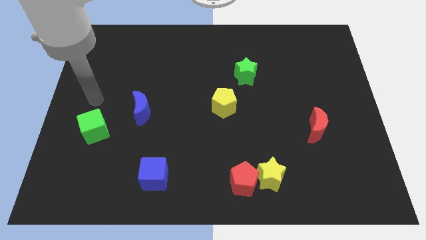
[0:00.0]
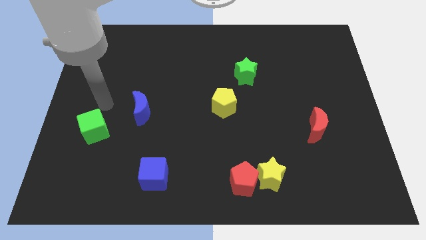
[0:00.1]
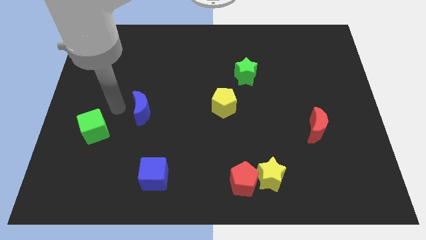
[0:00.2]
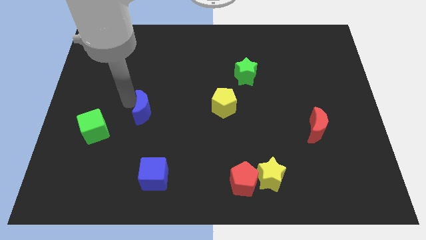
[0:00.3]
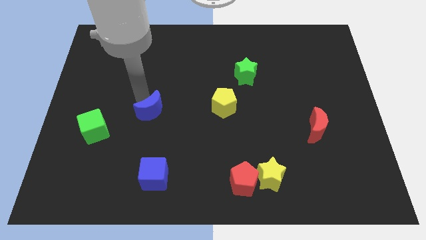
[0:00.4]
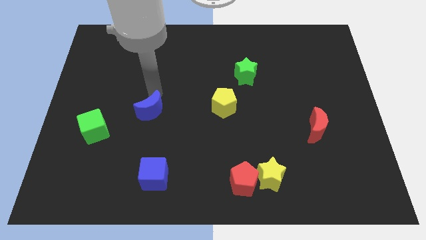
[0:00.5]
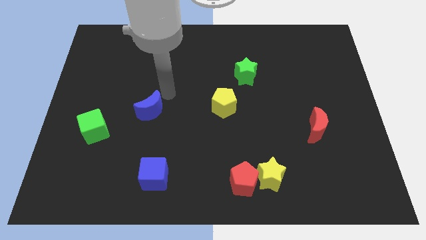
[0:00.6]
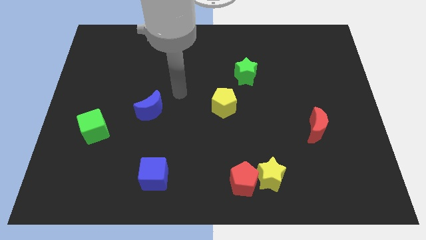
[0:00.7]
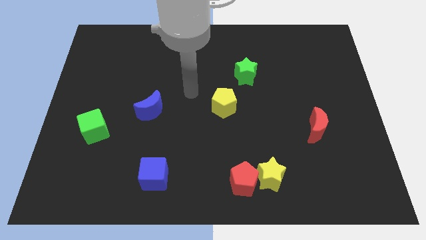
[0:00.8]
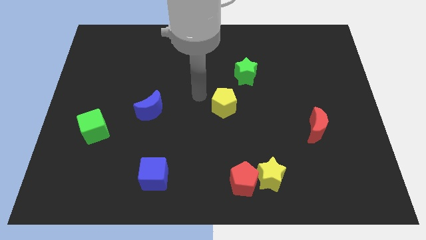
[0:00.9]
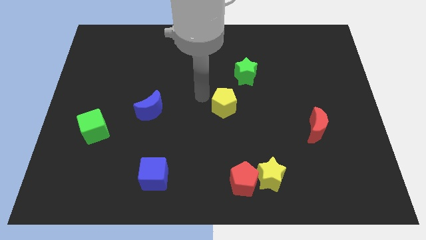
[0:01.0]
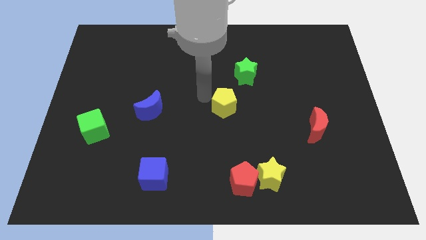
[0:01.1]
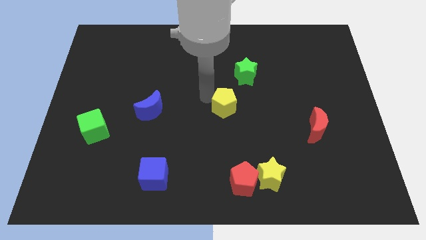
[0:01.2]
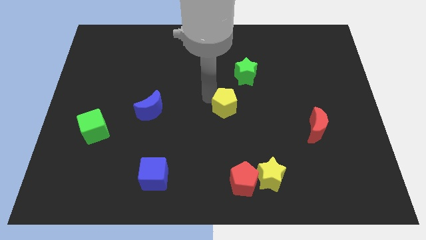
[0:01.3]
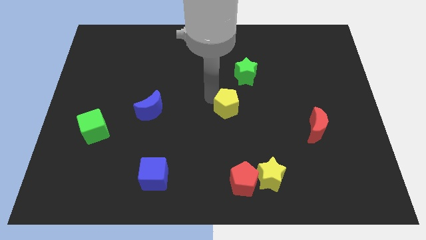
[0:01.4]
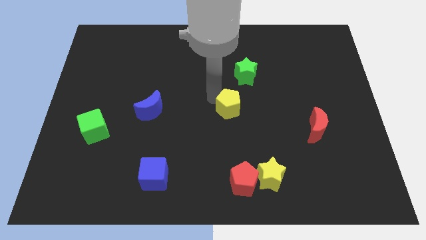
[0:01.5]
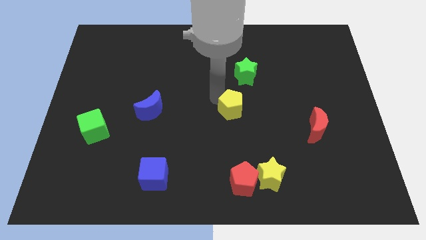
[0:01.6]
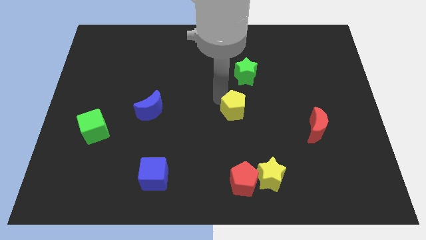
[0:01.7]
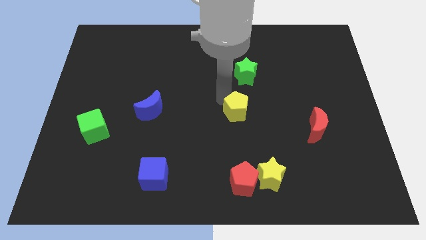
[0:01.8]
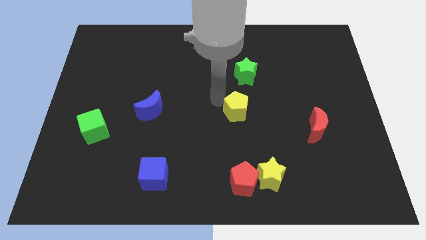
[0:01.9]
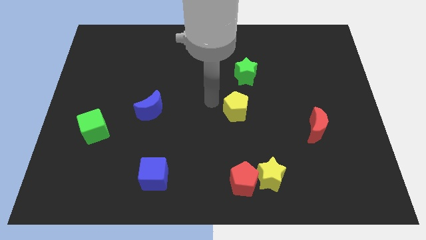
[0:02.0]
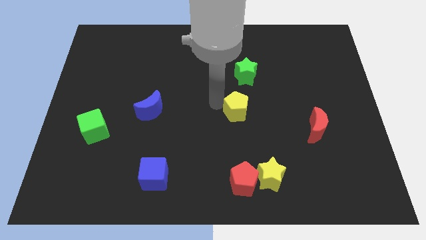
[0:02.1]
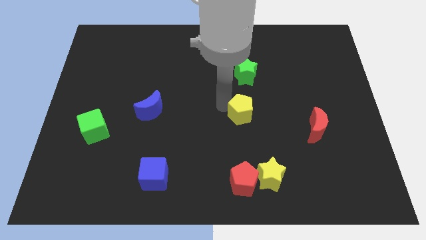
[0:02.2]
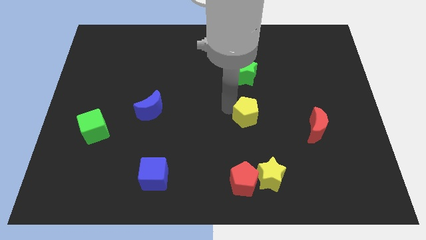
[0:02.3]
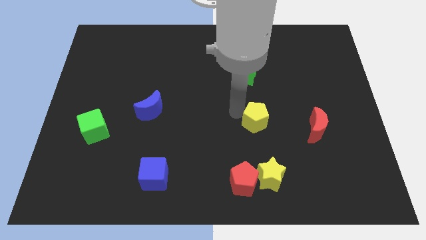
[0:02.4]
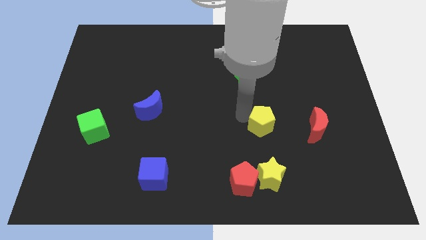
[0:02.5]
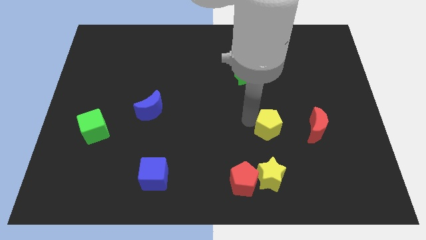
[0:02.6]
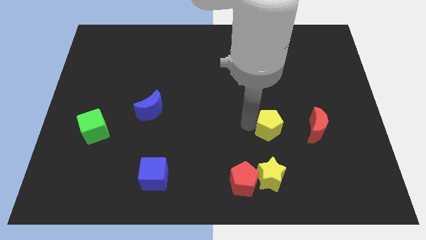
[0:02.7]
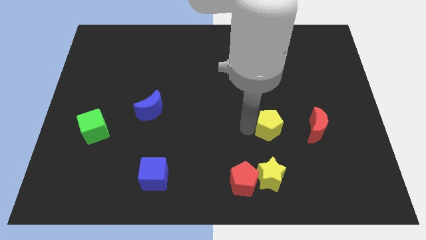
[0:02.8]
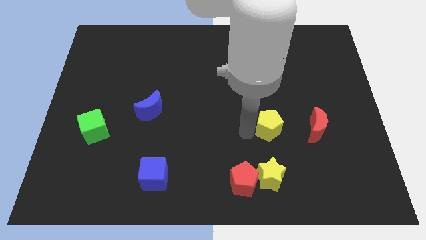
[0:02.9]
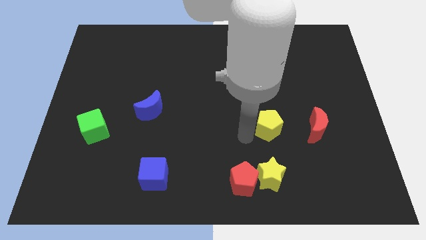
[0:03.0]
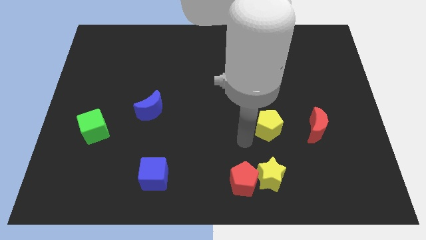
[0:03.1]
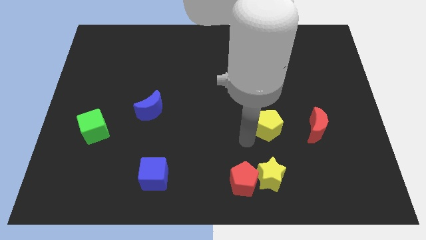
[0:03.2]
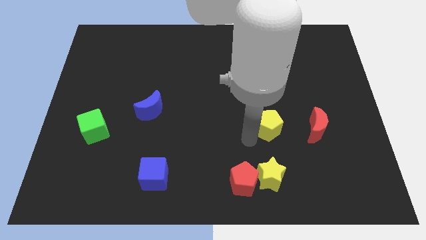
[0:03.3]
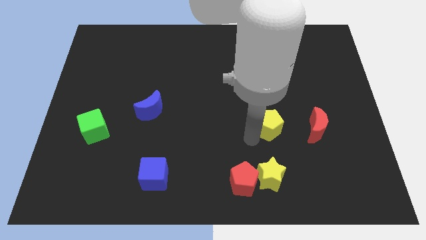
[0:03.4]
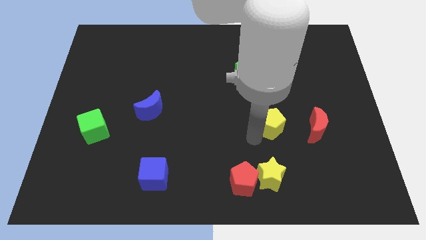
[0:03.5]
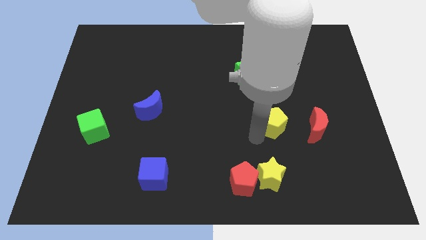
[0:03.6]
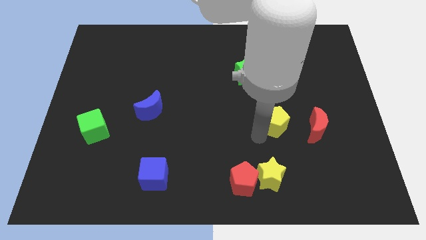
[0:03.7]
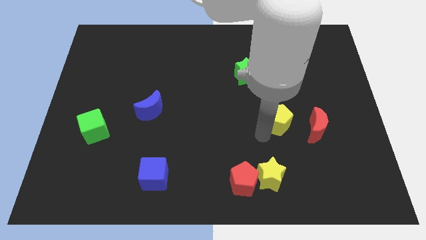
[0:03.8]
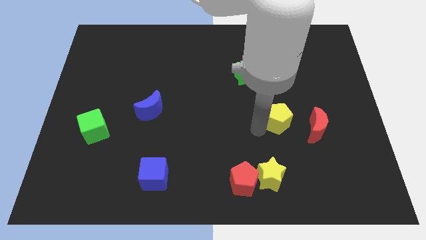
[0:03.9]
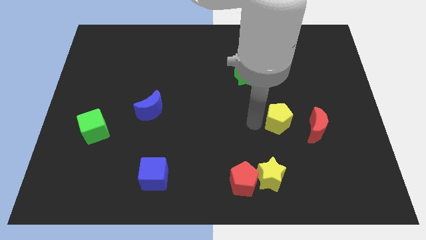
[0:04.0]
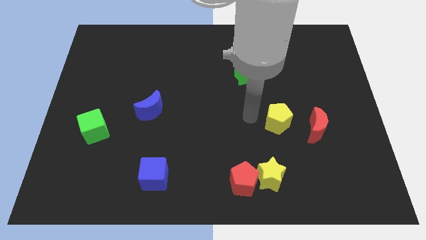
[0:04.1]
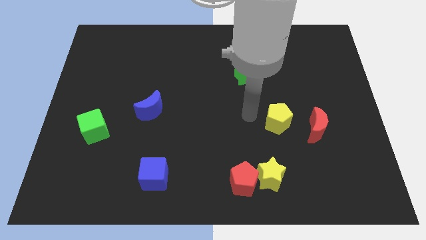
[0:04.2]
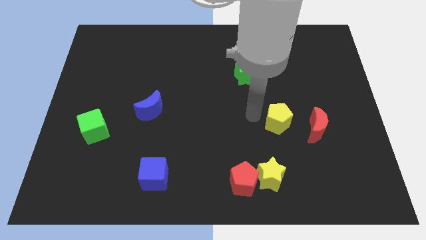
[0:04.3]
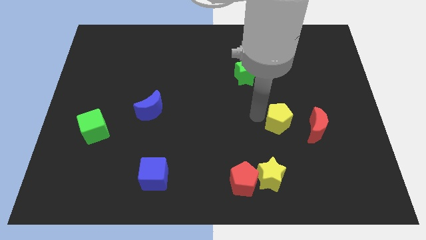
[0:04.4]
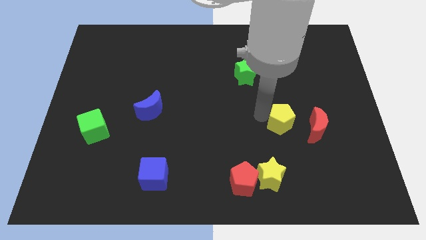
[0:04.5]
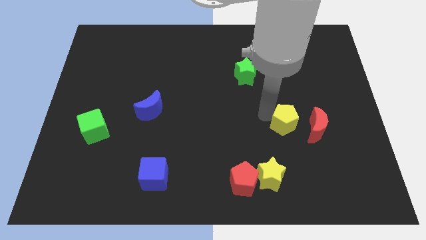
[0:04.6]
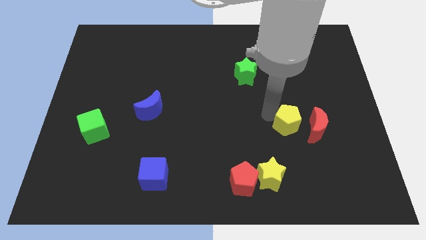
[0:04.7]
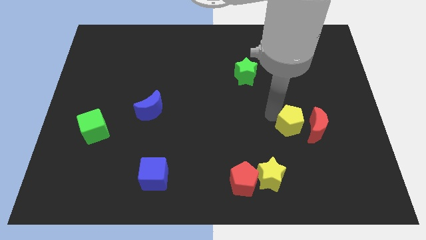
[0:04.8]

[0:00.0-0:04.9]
put the yellow pentagon close to the red moon

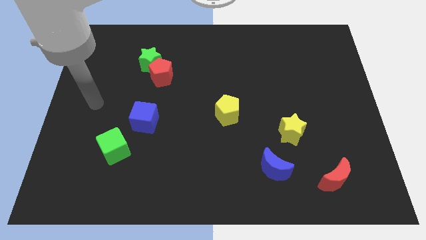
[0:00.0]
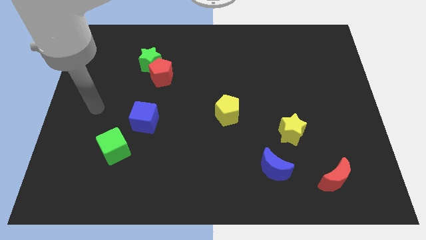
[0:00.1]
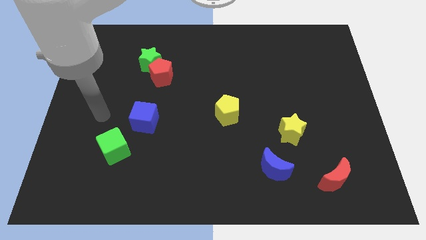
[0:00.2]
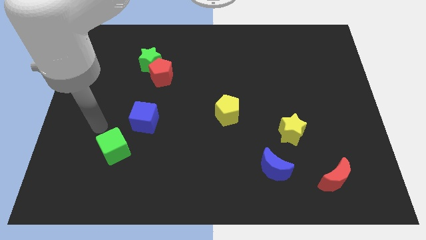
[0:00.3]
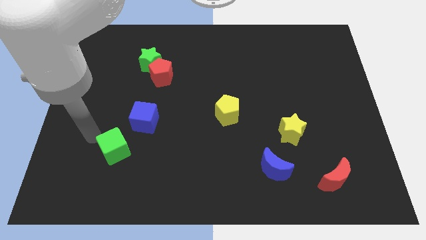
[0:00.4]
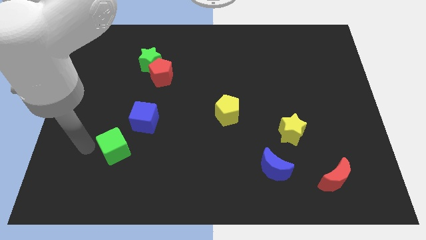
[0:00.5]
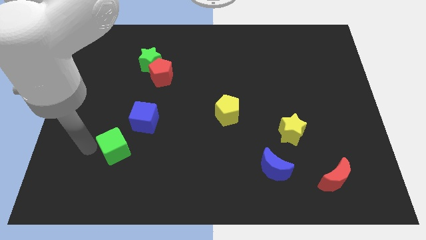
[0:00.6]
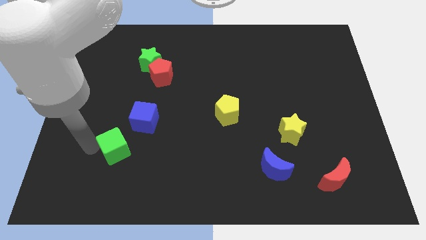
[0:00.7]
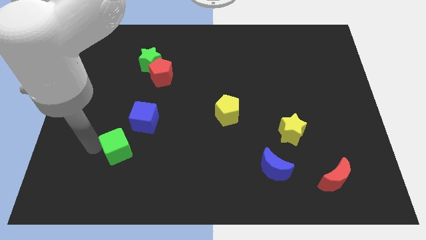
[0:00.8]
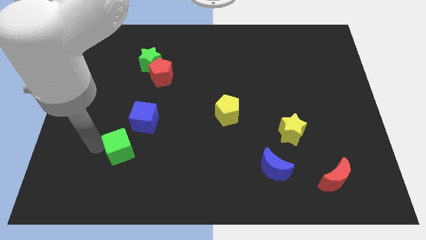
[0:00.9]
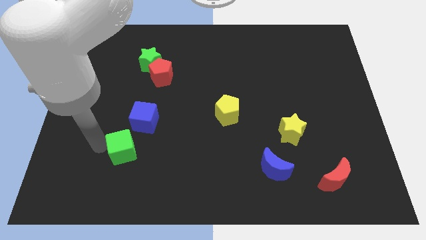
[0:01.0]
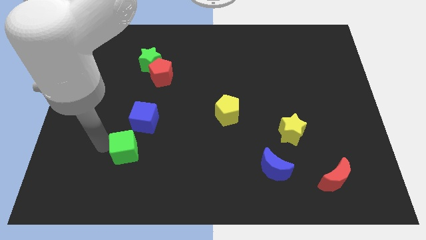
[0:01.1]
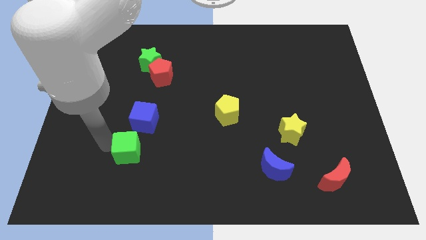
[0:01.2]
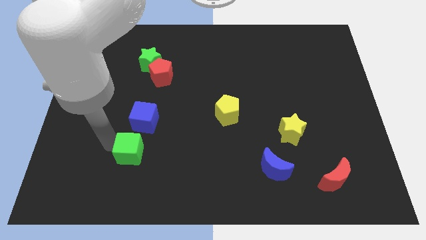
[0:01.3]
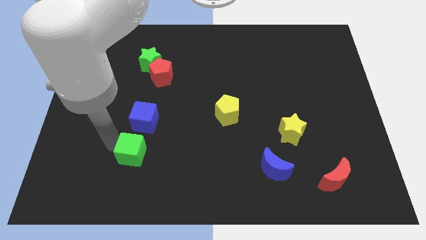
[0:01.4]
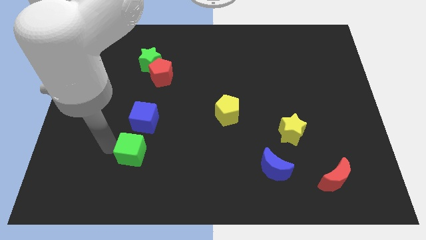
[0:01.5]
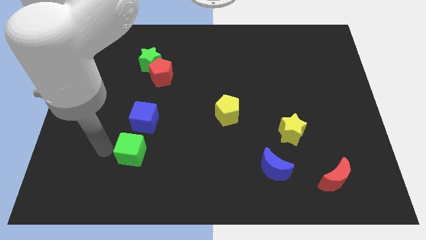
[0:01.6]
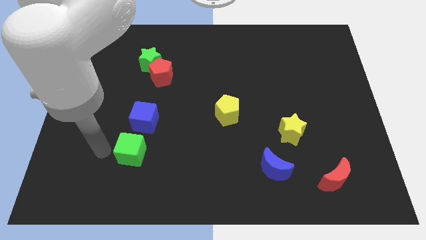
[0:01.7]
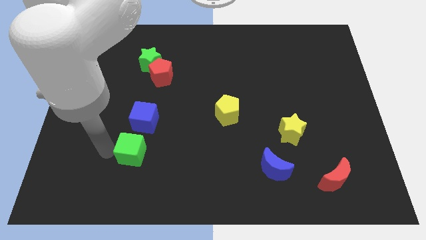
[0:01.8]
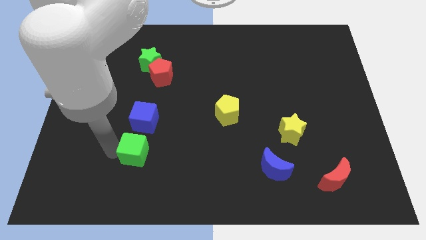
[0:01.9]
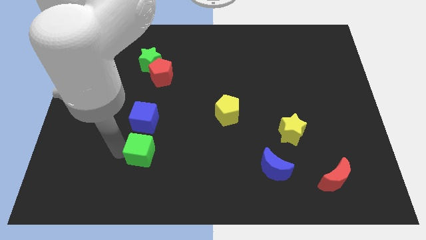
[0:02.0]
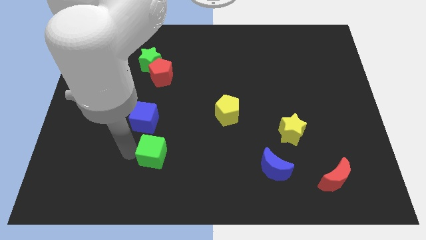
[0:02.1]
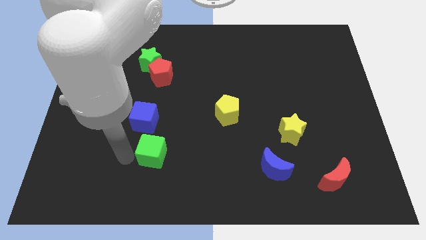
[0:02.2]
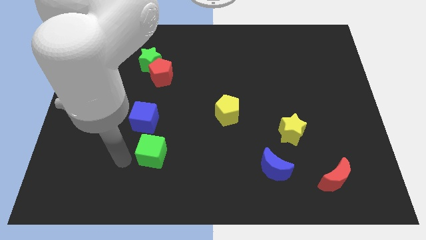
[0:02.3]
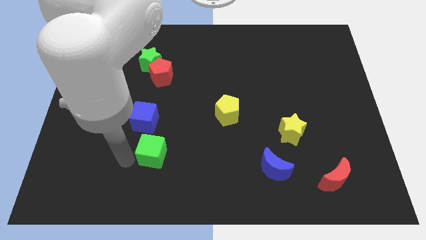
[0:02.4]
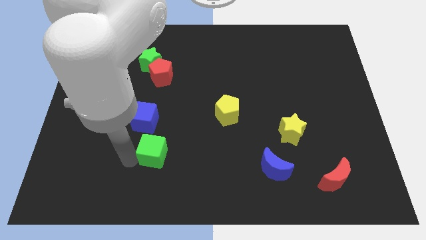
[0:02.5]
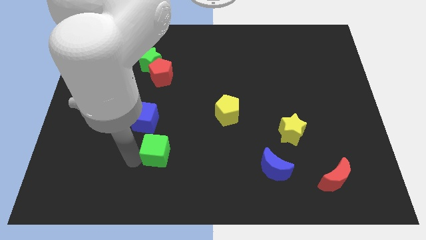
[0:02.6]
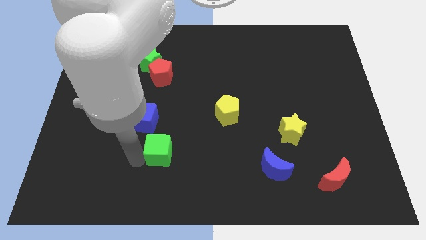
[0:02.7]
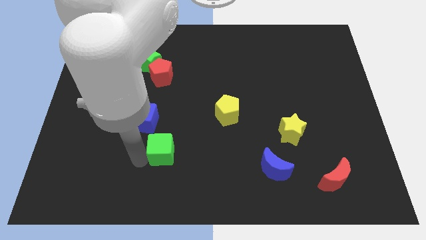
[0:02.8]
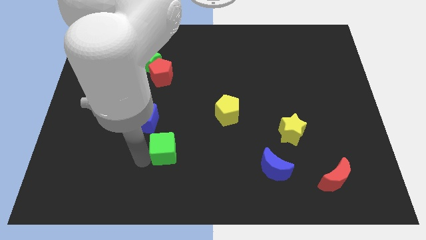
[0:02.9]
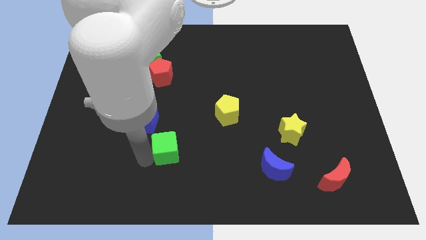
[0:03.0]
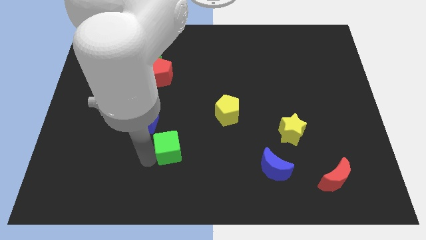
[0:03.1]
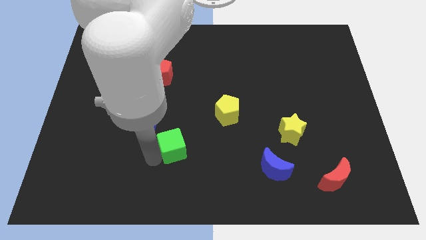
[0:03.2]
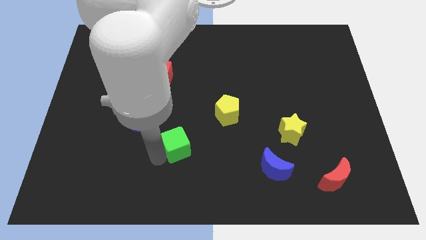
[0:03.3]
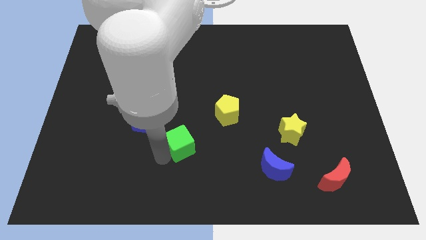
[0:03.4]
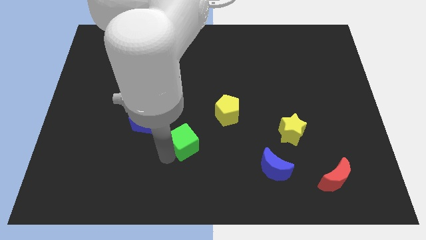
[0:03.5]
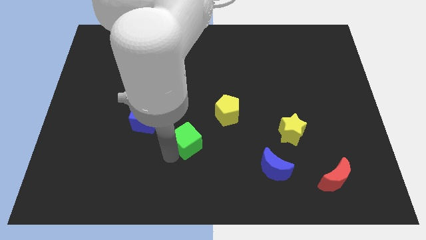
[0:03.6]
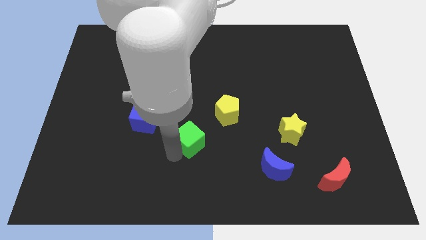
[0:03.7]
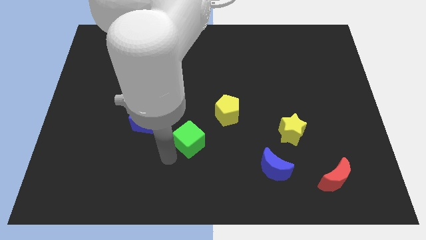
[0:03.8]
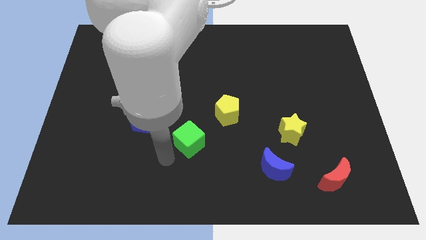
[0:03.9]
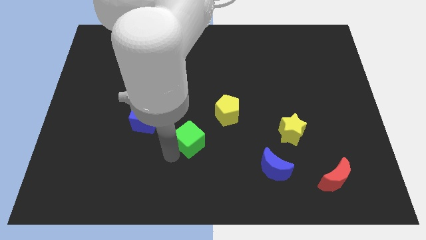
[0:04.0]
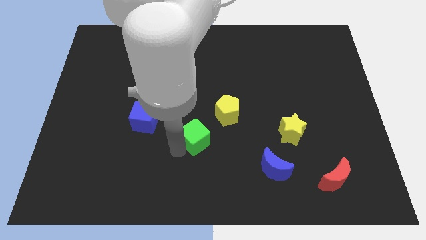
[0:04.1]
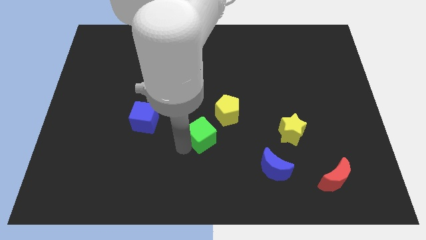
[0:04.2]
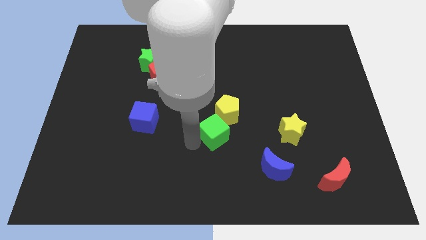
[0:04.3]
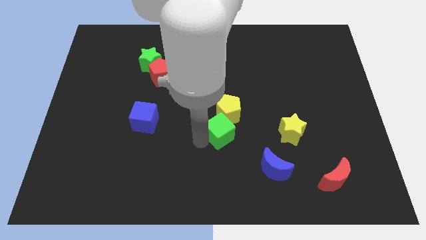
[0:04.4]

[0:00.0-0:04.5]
slide the green cube close to the yellow pentagon
